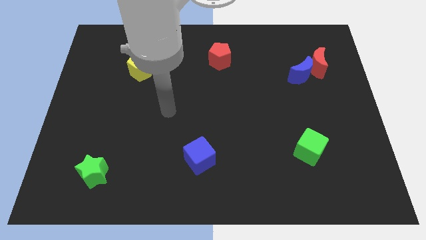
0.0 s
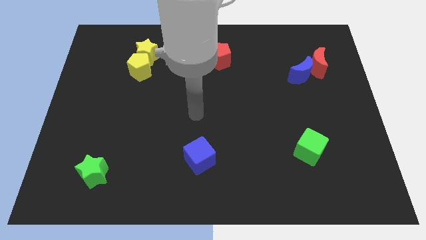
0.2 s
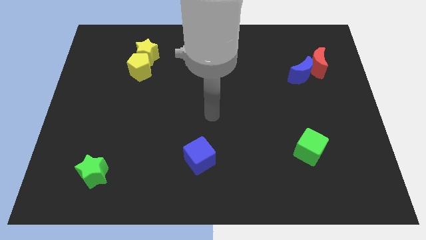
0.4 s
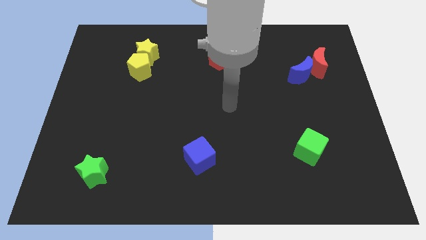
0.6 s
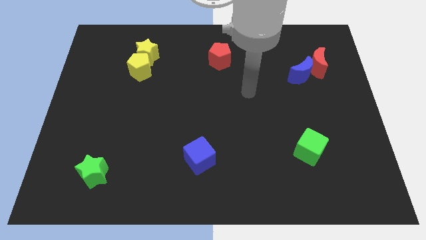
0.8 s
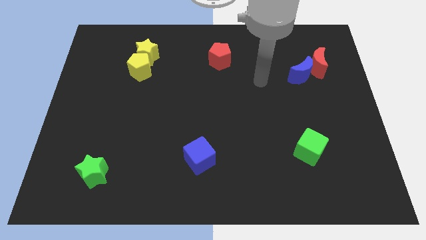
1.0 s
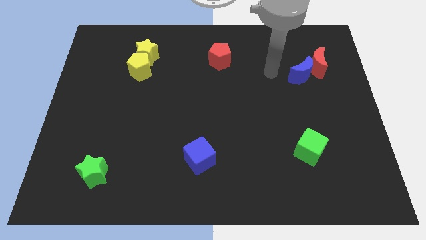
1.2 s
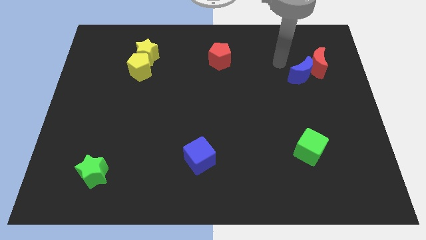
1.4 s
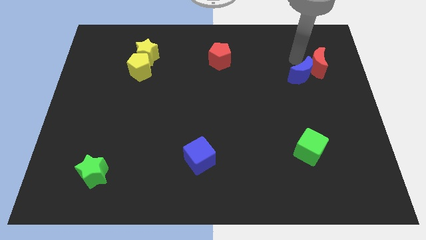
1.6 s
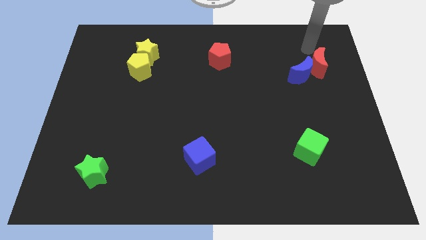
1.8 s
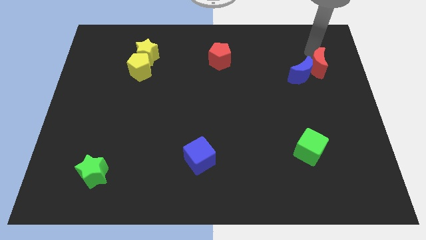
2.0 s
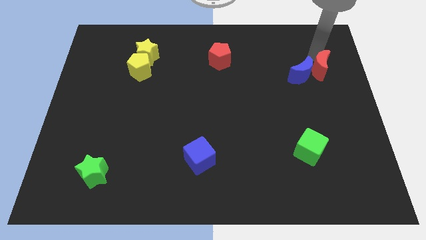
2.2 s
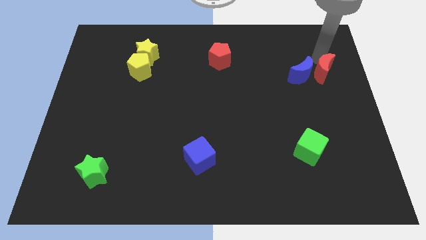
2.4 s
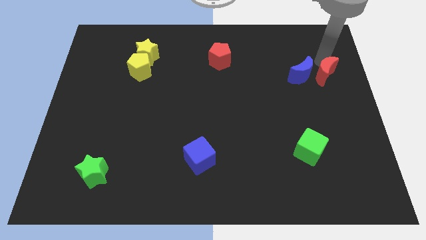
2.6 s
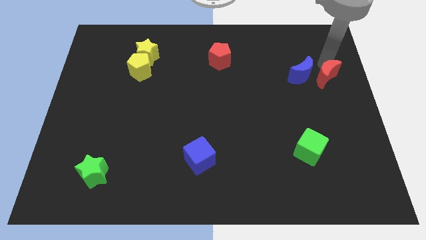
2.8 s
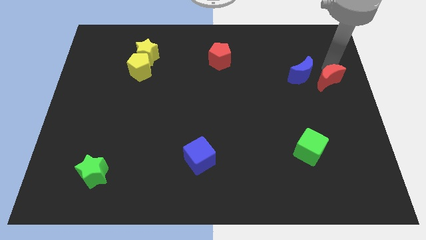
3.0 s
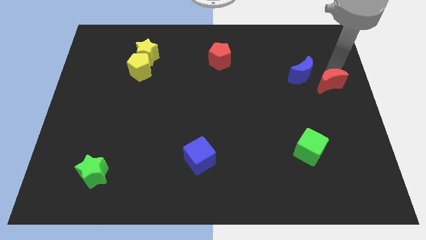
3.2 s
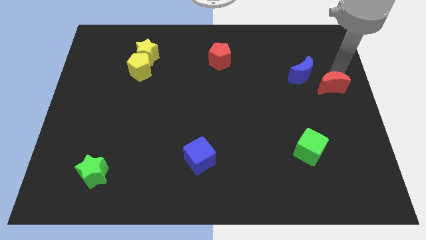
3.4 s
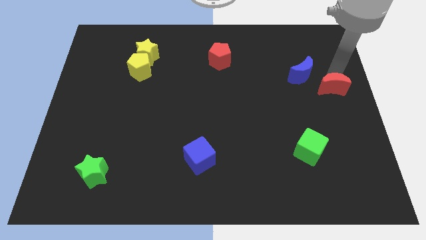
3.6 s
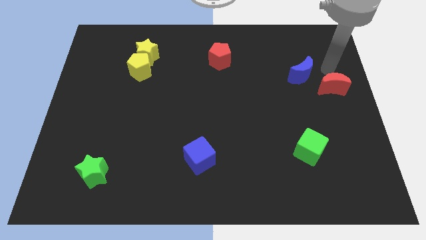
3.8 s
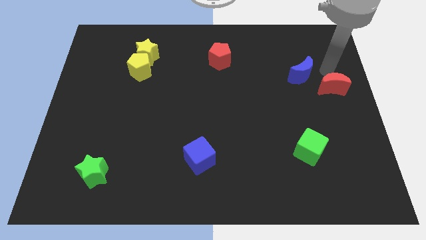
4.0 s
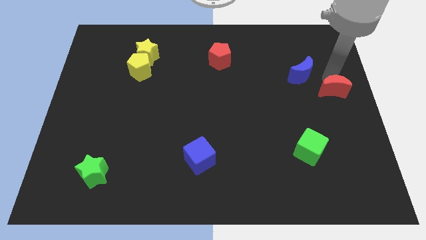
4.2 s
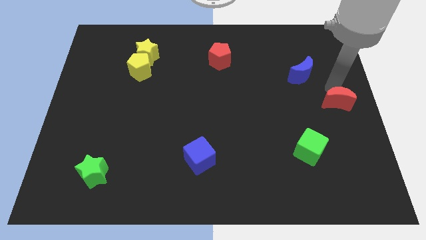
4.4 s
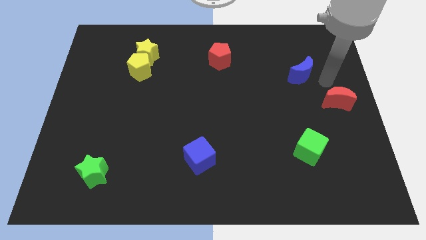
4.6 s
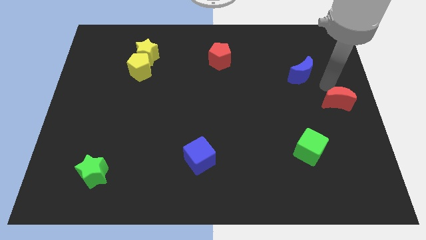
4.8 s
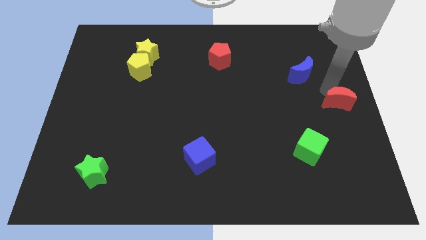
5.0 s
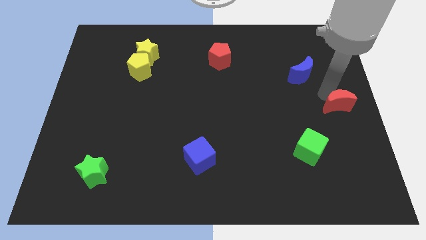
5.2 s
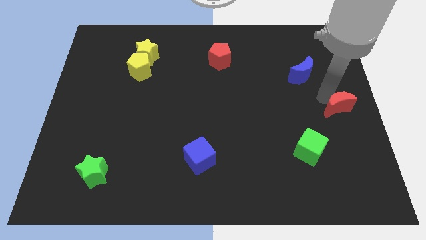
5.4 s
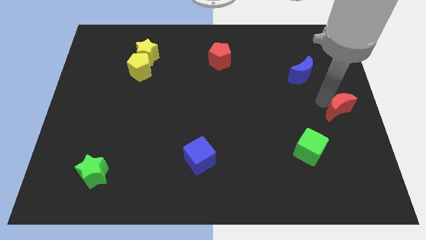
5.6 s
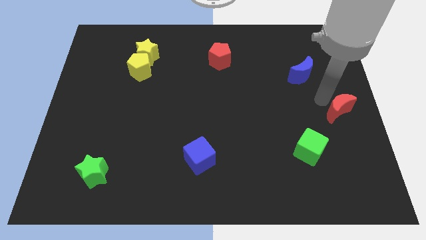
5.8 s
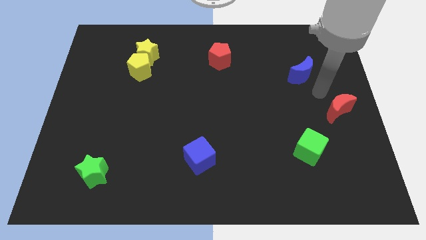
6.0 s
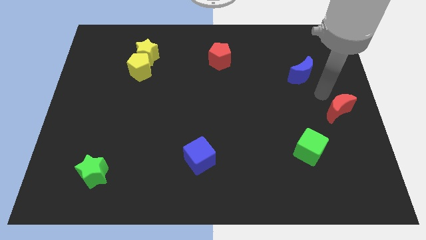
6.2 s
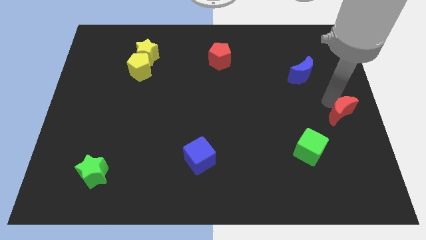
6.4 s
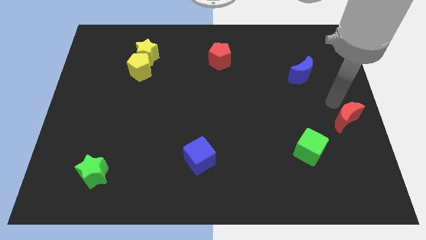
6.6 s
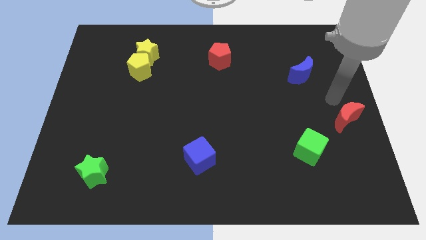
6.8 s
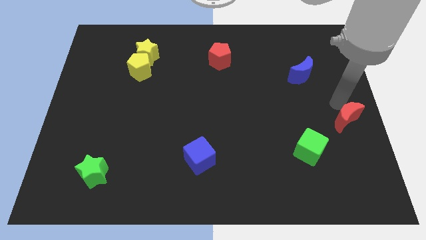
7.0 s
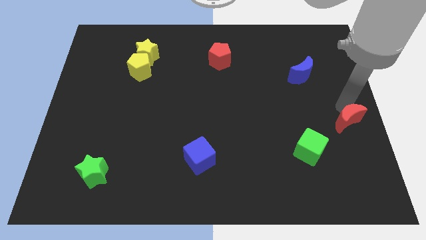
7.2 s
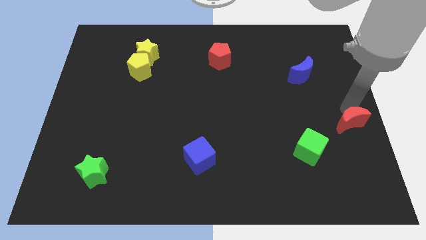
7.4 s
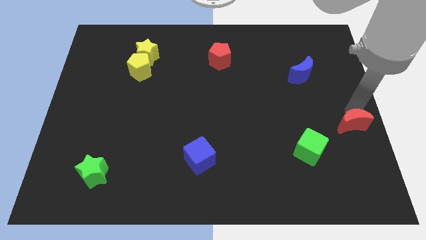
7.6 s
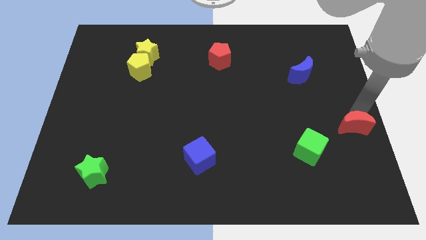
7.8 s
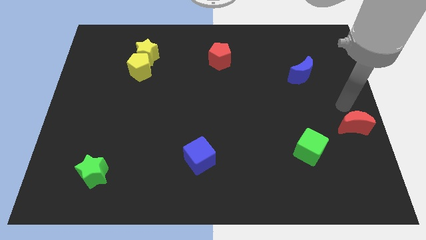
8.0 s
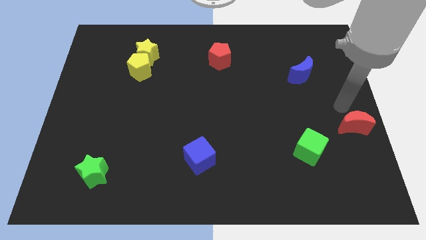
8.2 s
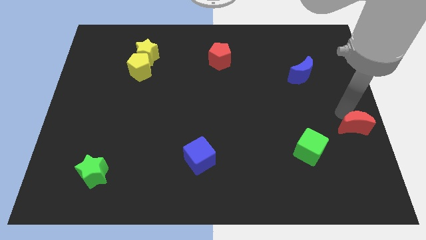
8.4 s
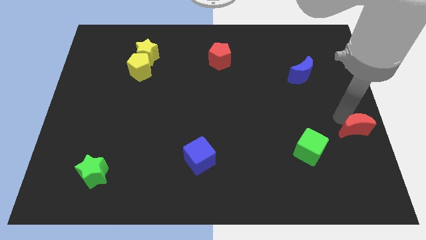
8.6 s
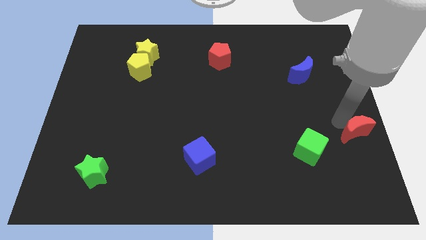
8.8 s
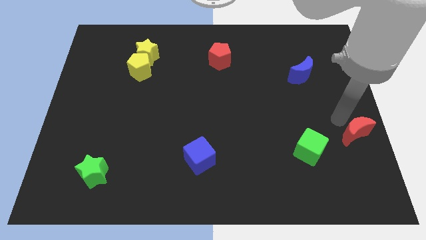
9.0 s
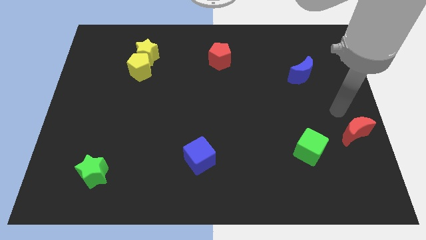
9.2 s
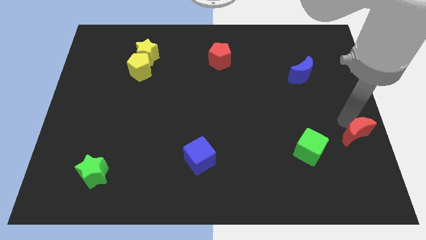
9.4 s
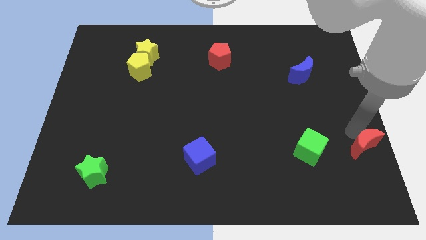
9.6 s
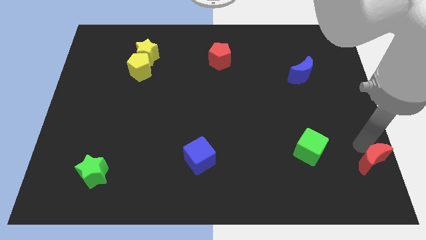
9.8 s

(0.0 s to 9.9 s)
push the red moon to the lower right corner
